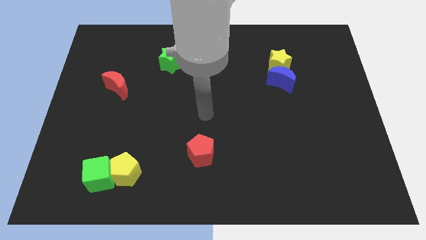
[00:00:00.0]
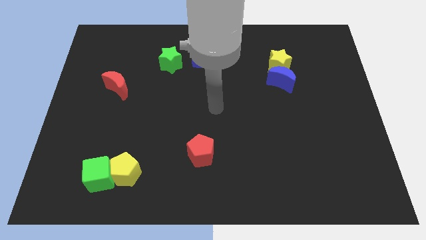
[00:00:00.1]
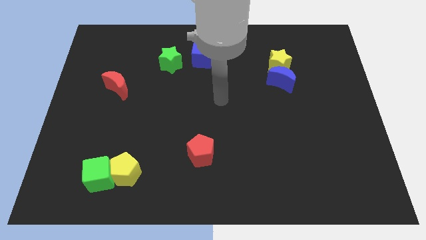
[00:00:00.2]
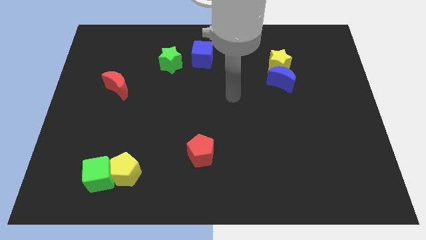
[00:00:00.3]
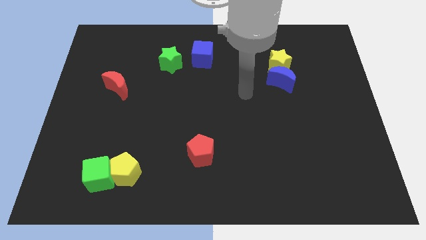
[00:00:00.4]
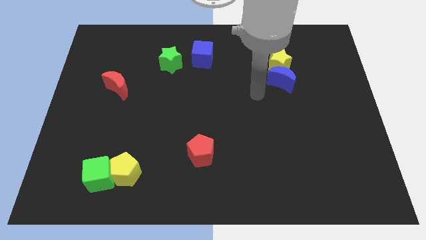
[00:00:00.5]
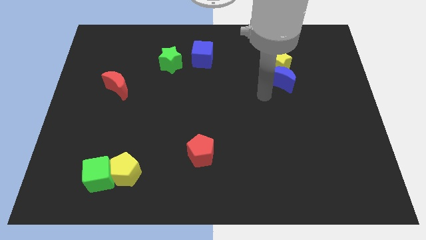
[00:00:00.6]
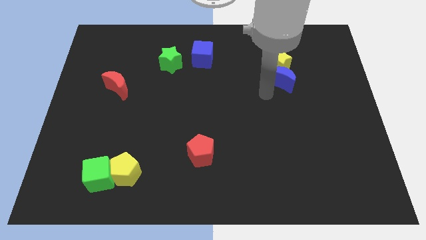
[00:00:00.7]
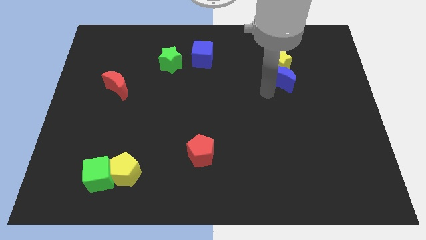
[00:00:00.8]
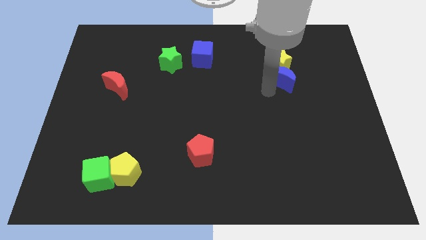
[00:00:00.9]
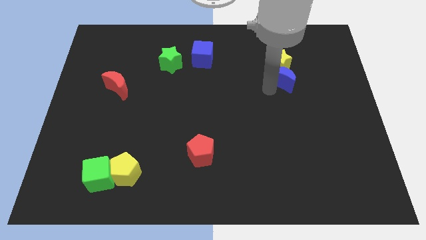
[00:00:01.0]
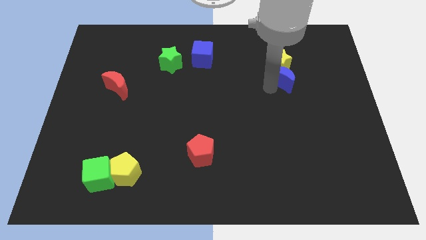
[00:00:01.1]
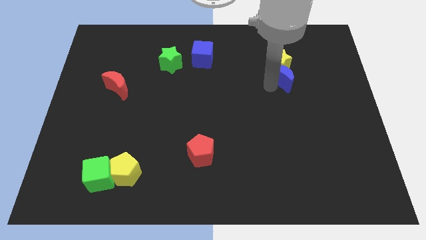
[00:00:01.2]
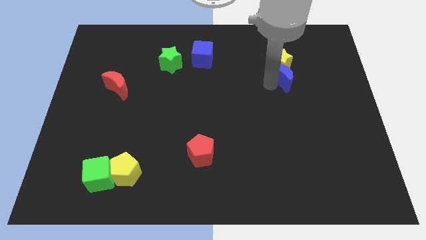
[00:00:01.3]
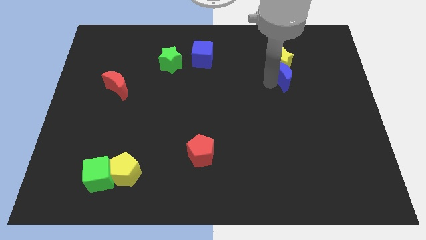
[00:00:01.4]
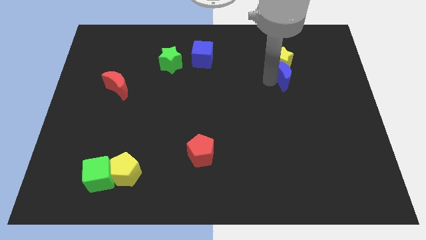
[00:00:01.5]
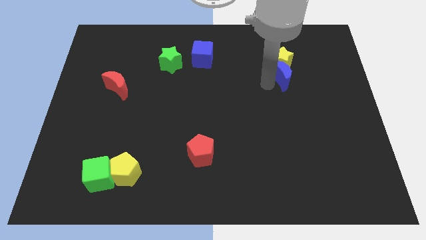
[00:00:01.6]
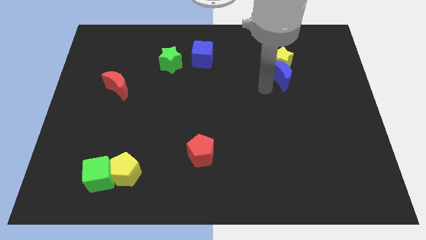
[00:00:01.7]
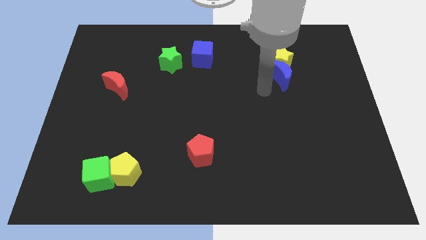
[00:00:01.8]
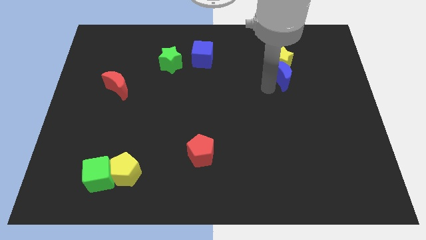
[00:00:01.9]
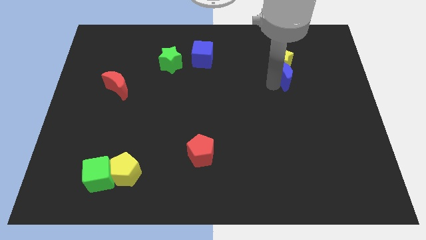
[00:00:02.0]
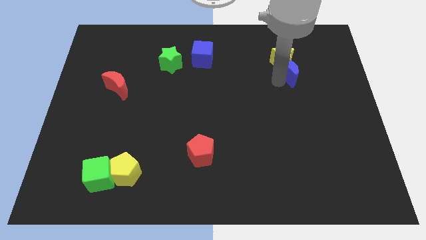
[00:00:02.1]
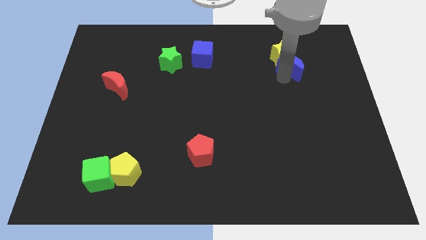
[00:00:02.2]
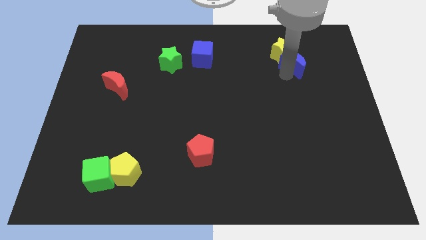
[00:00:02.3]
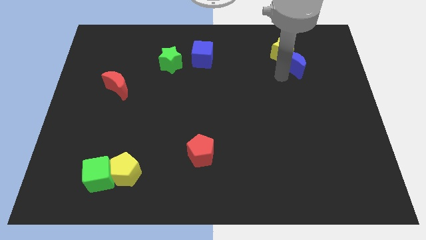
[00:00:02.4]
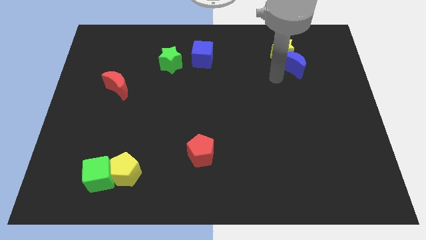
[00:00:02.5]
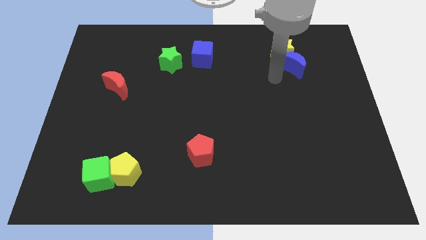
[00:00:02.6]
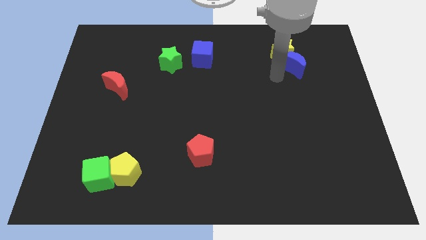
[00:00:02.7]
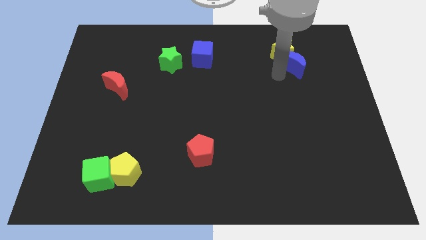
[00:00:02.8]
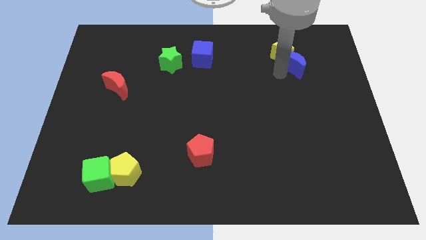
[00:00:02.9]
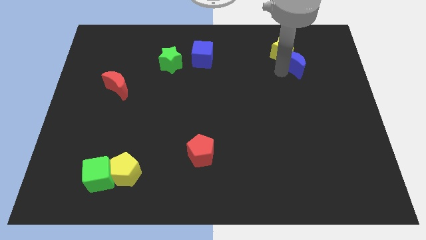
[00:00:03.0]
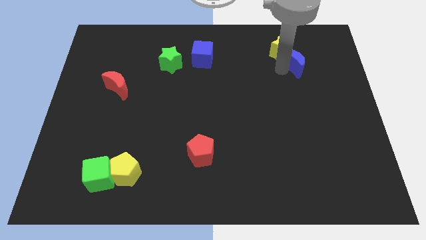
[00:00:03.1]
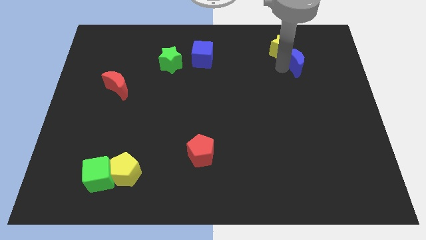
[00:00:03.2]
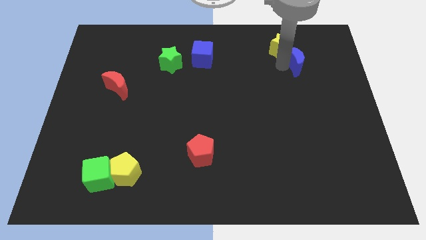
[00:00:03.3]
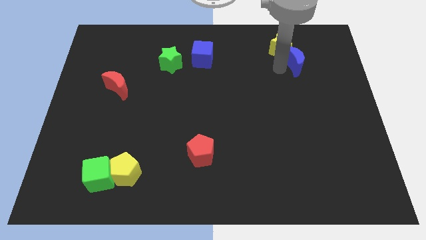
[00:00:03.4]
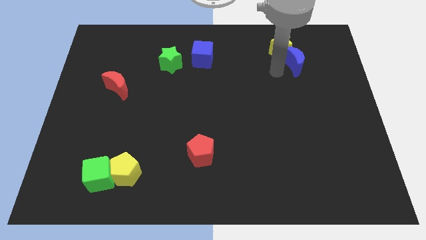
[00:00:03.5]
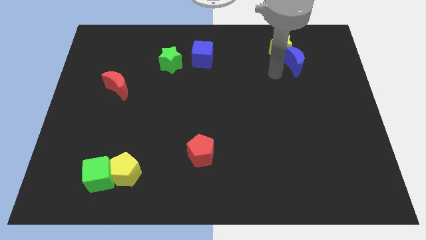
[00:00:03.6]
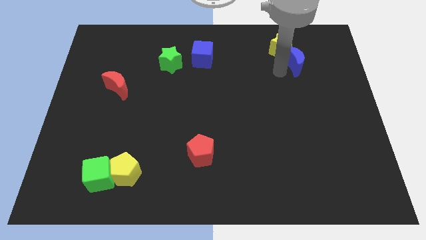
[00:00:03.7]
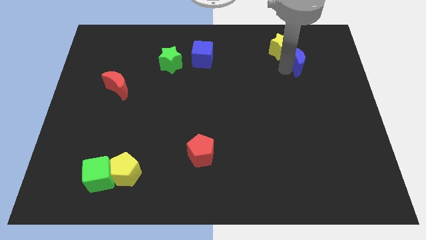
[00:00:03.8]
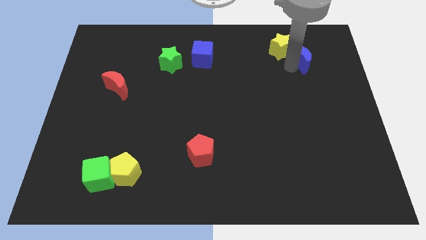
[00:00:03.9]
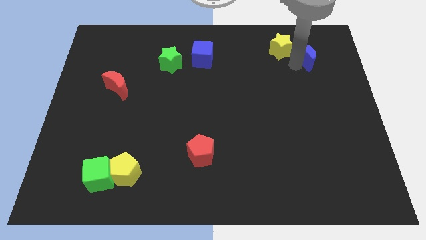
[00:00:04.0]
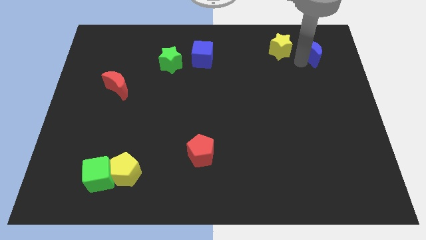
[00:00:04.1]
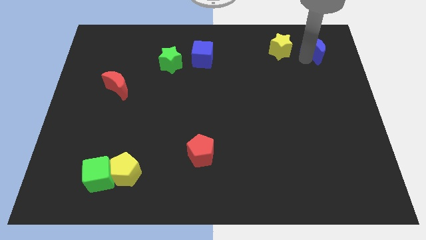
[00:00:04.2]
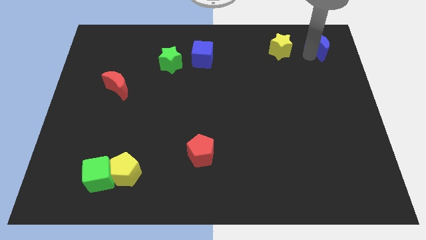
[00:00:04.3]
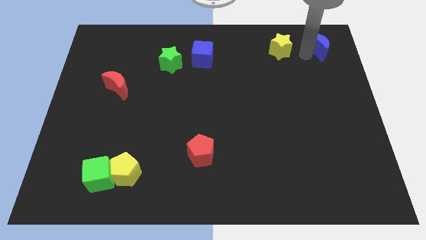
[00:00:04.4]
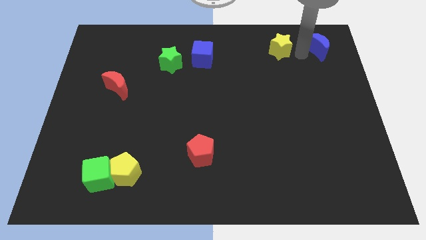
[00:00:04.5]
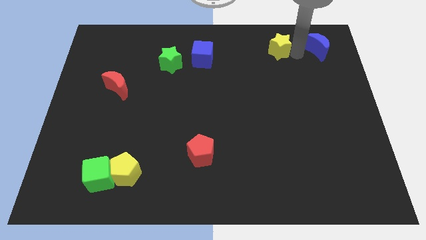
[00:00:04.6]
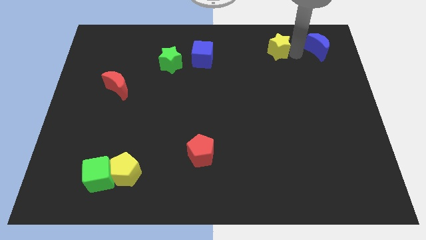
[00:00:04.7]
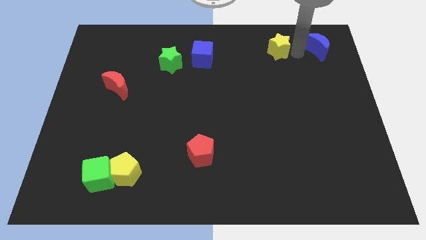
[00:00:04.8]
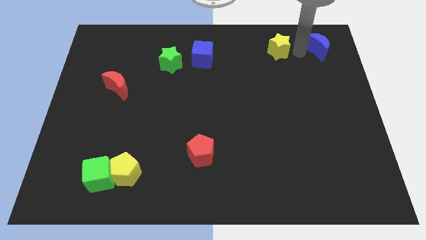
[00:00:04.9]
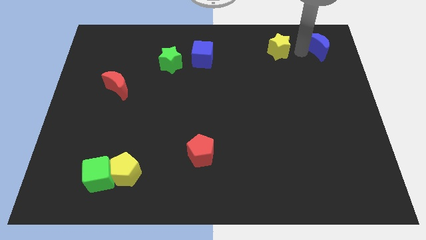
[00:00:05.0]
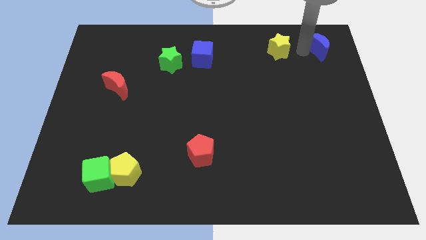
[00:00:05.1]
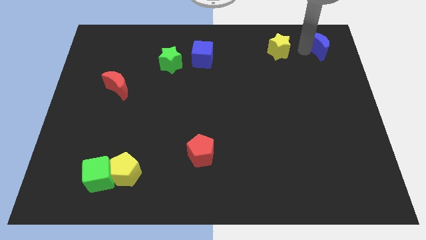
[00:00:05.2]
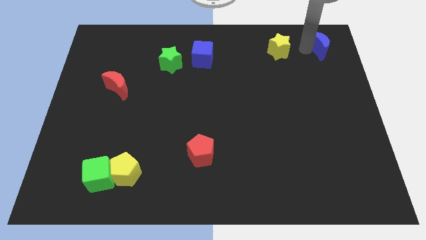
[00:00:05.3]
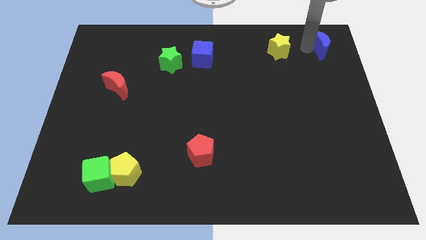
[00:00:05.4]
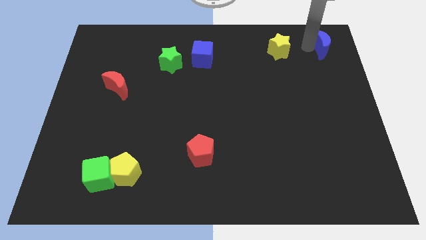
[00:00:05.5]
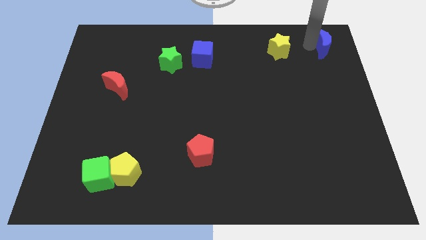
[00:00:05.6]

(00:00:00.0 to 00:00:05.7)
push the blue moon to the top right

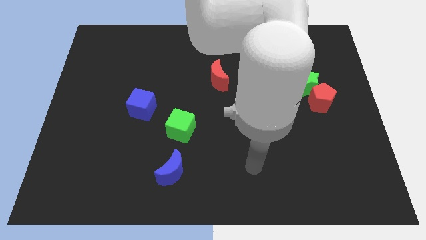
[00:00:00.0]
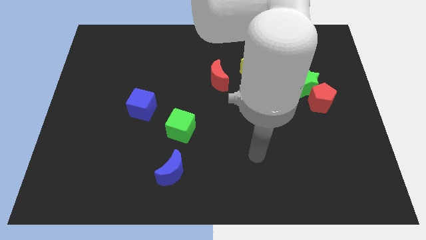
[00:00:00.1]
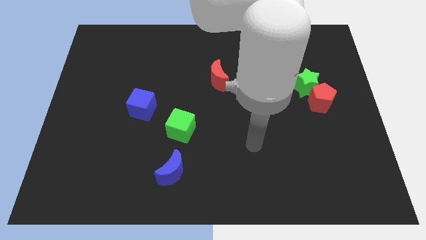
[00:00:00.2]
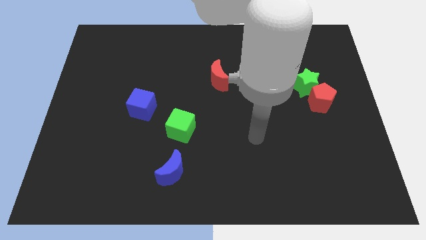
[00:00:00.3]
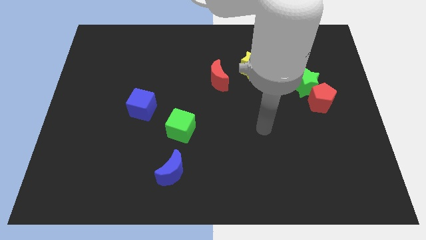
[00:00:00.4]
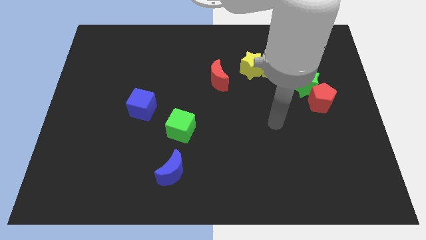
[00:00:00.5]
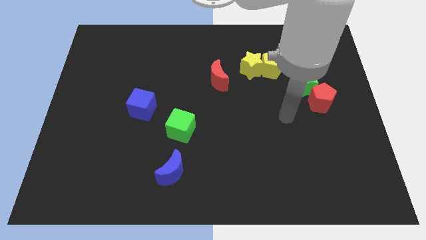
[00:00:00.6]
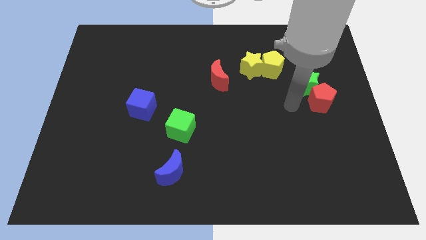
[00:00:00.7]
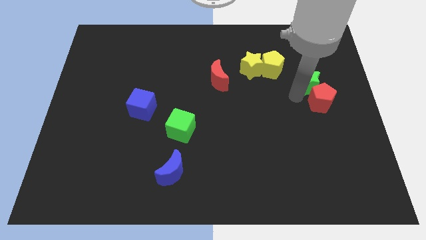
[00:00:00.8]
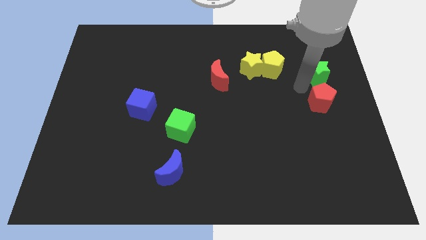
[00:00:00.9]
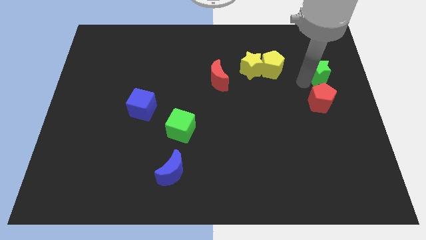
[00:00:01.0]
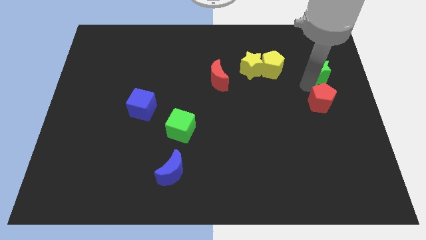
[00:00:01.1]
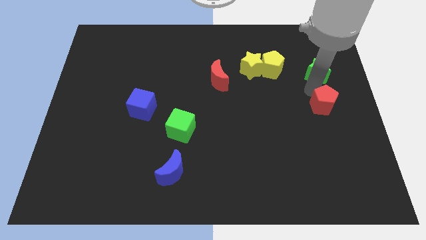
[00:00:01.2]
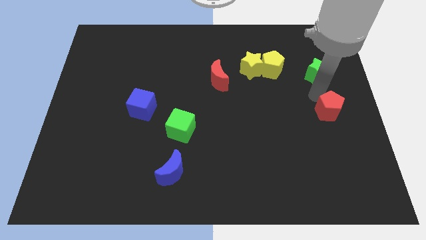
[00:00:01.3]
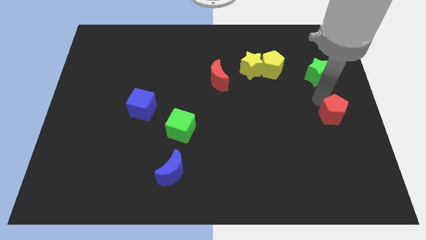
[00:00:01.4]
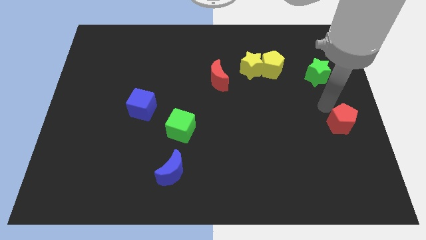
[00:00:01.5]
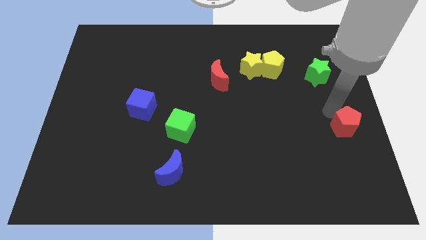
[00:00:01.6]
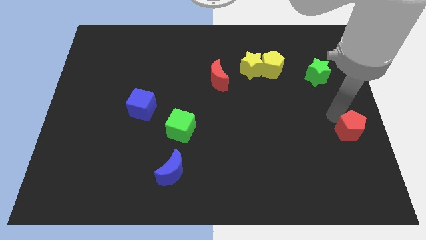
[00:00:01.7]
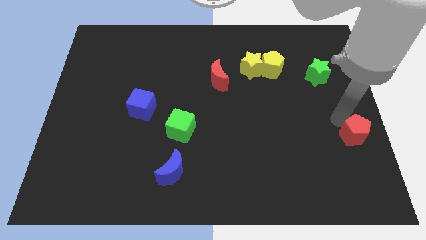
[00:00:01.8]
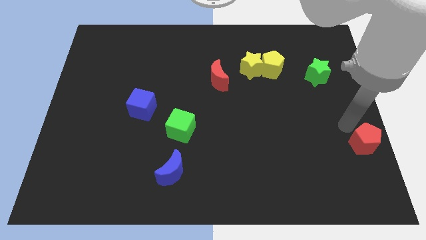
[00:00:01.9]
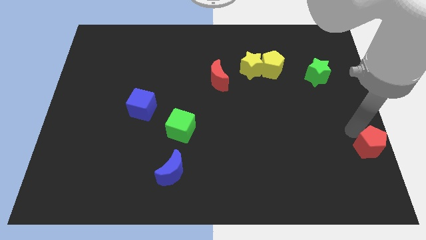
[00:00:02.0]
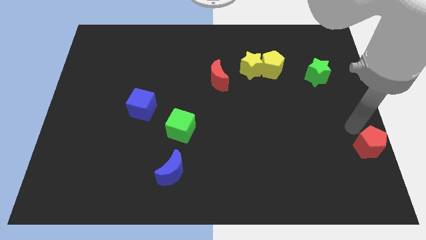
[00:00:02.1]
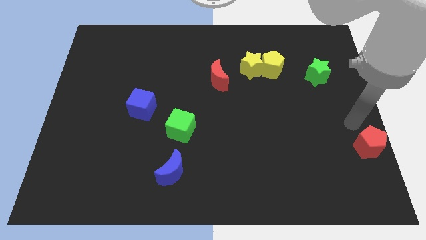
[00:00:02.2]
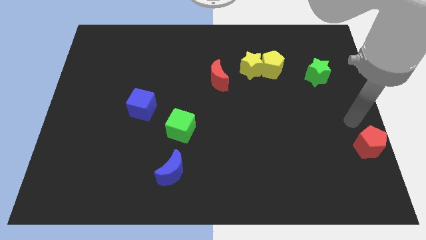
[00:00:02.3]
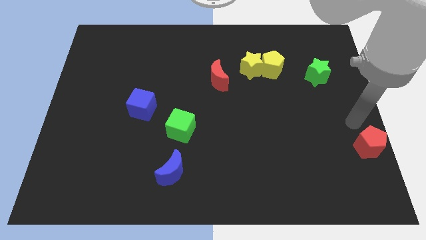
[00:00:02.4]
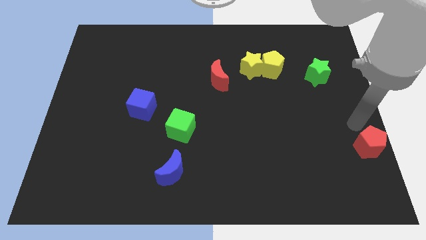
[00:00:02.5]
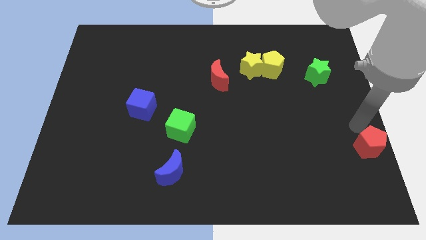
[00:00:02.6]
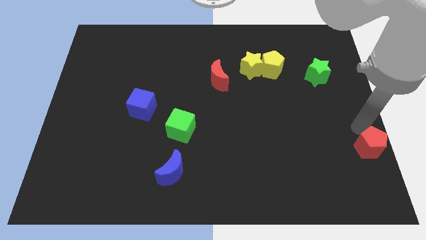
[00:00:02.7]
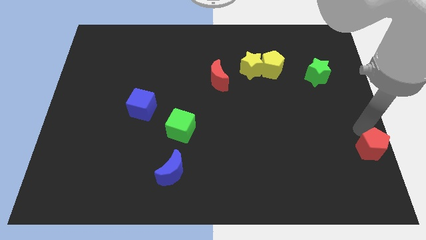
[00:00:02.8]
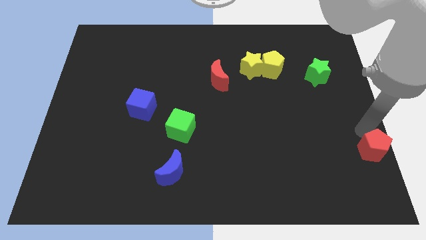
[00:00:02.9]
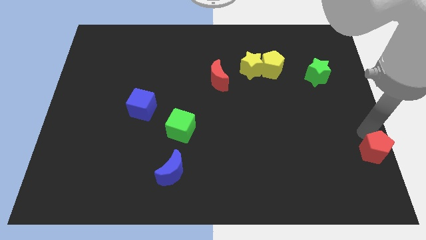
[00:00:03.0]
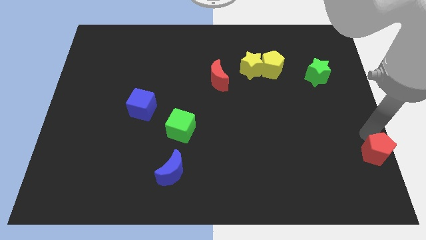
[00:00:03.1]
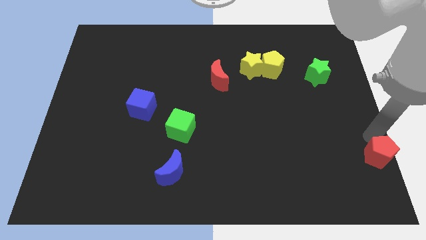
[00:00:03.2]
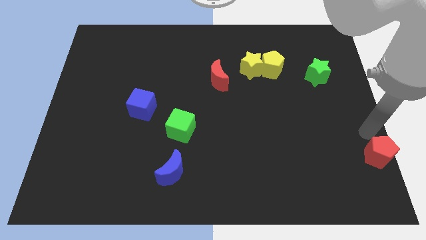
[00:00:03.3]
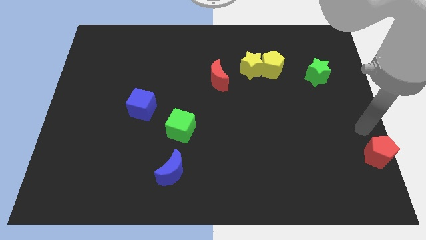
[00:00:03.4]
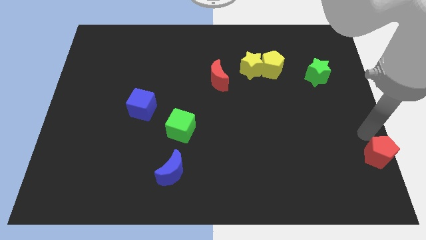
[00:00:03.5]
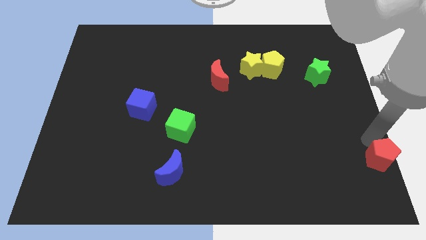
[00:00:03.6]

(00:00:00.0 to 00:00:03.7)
push the red pentagon to the bottom right
